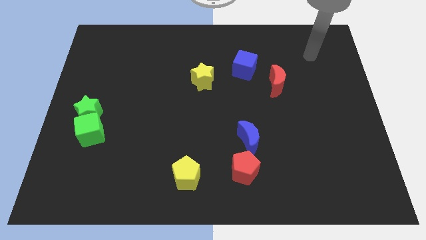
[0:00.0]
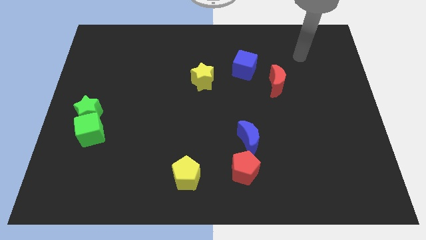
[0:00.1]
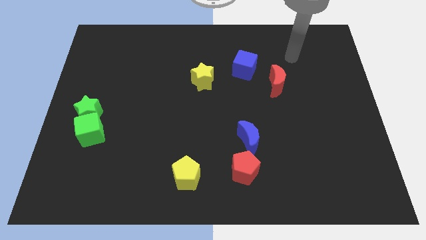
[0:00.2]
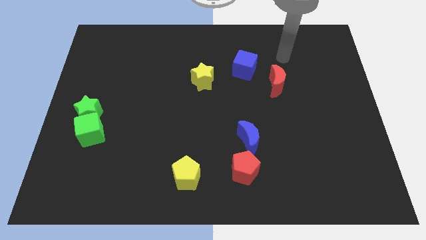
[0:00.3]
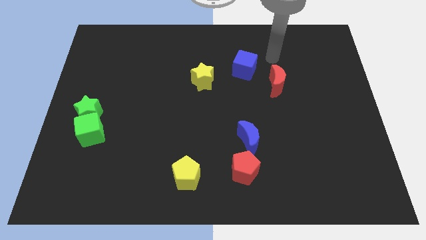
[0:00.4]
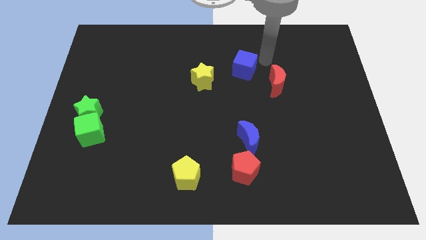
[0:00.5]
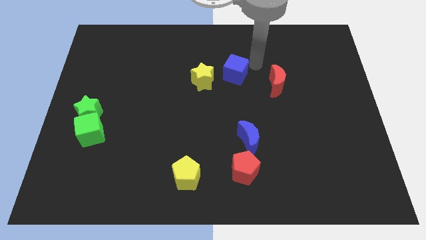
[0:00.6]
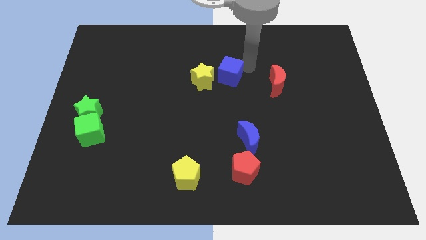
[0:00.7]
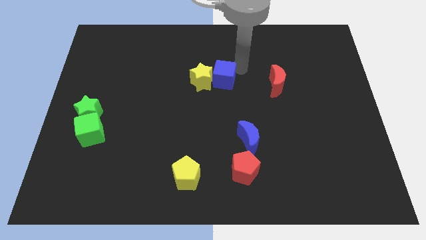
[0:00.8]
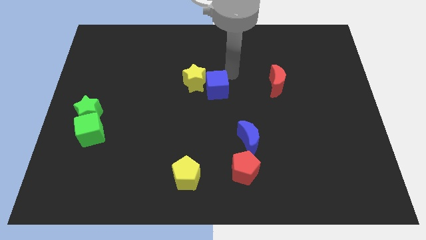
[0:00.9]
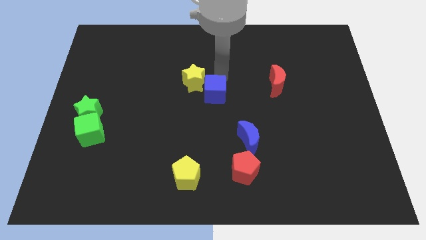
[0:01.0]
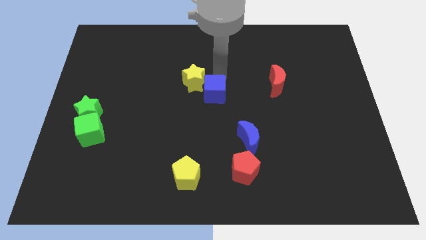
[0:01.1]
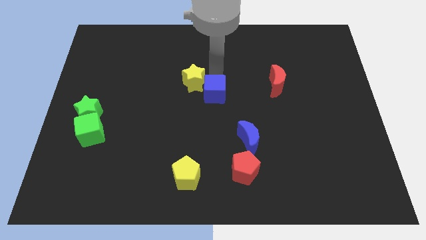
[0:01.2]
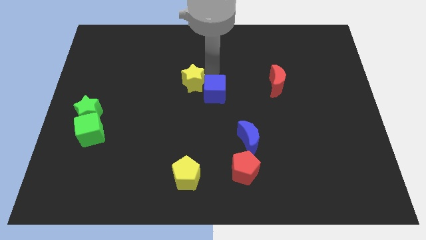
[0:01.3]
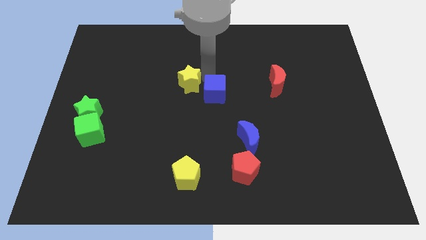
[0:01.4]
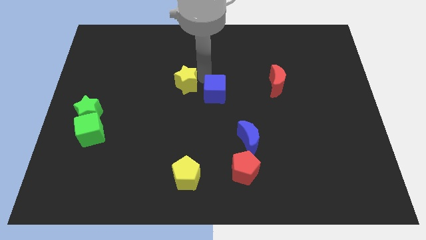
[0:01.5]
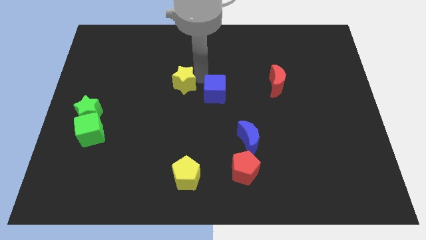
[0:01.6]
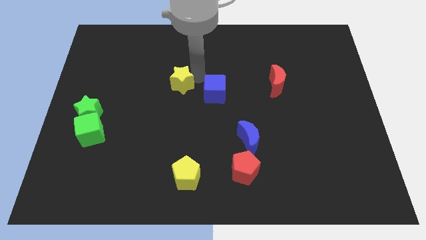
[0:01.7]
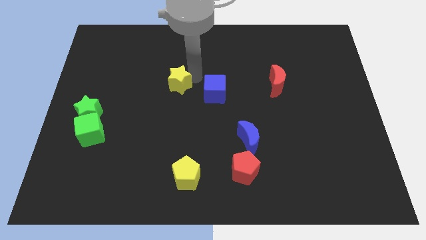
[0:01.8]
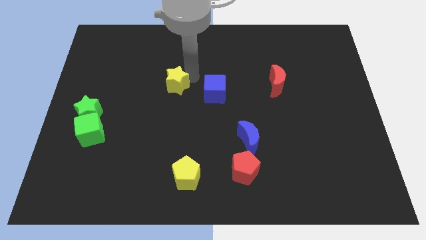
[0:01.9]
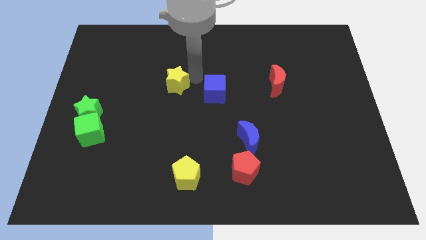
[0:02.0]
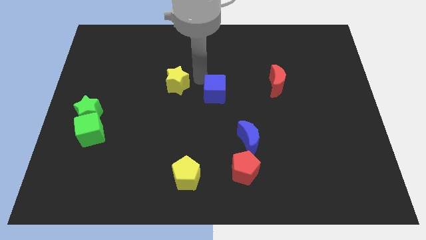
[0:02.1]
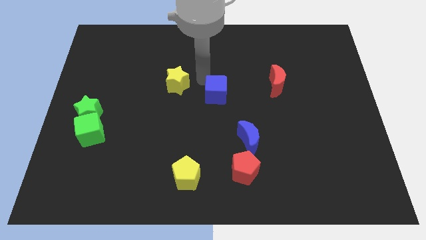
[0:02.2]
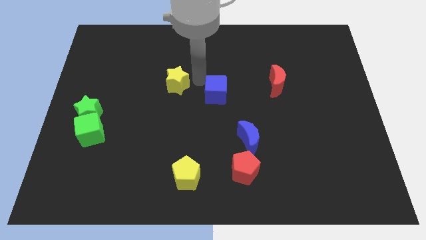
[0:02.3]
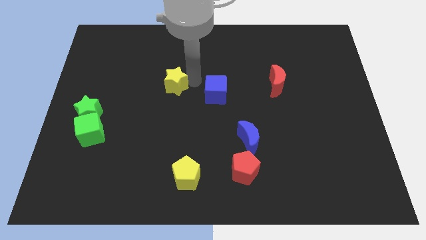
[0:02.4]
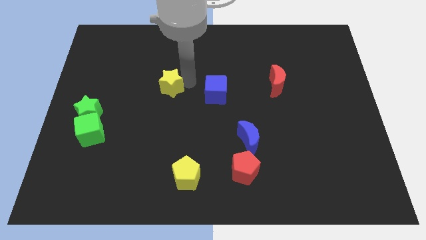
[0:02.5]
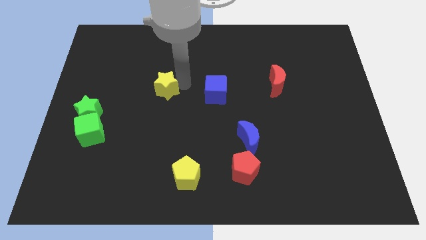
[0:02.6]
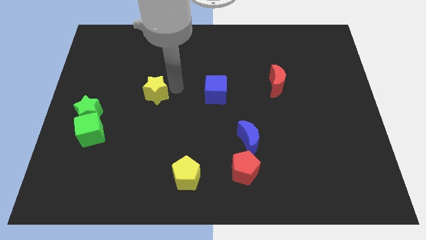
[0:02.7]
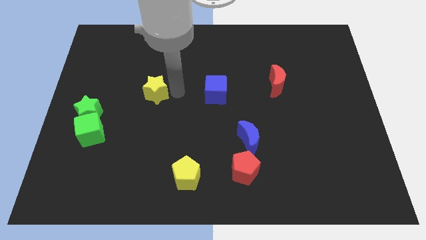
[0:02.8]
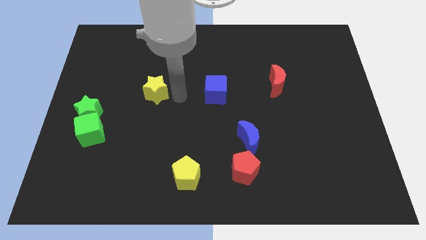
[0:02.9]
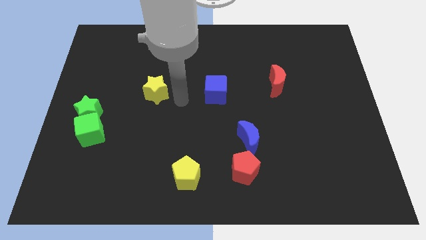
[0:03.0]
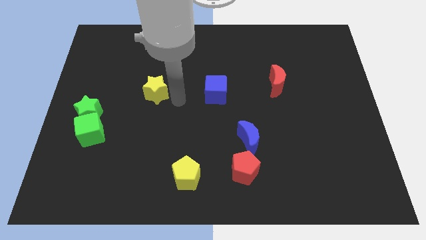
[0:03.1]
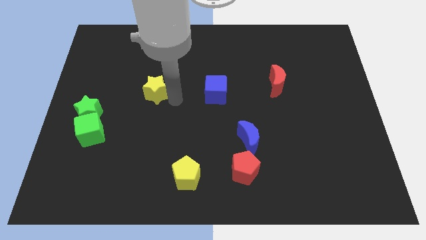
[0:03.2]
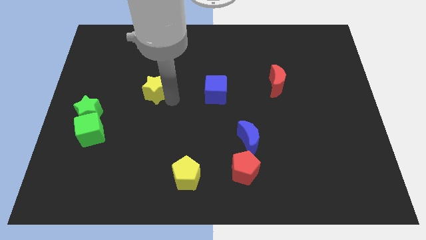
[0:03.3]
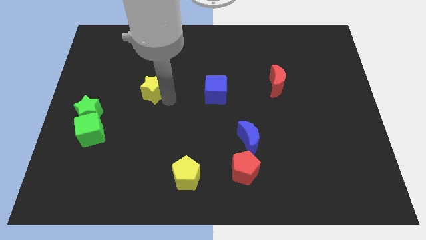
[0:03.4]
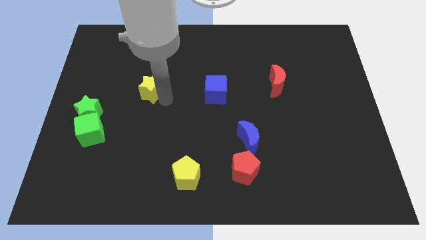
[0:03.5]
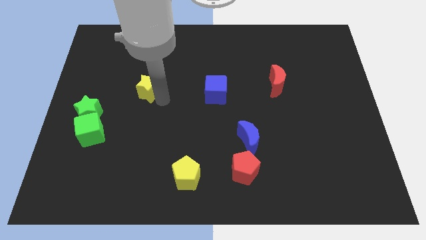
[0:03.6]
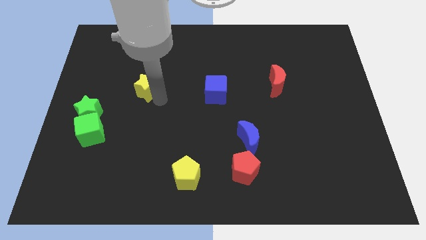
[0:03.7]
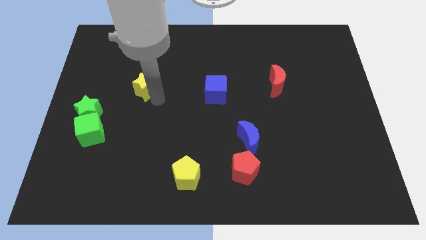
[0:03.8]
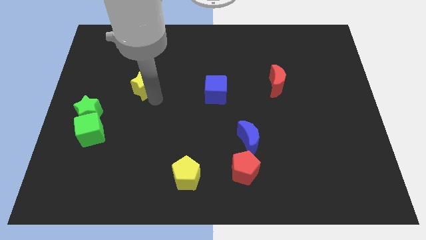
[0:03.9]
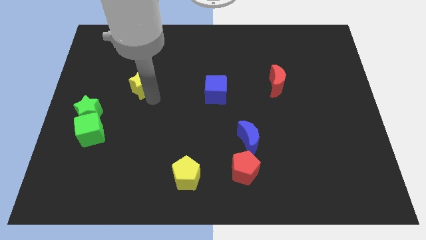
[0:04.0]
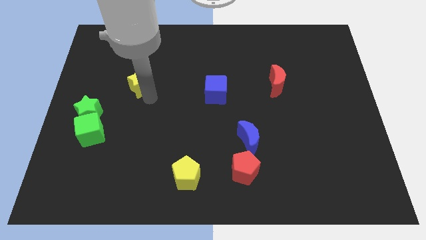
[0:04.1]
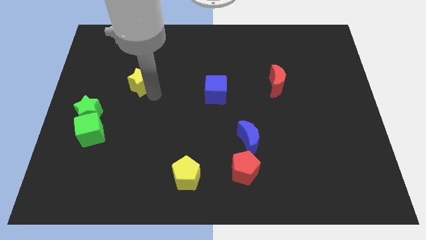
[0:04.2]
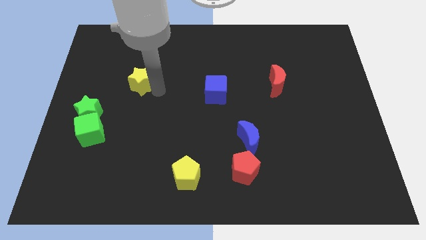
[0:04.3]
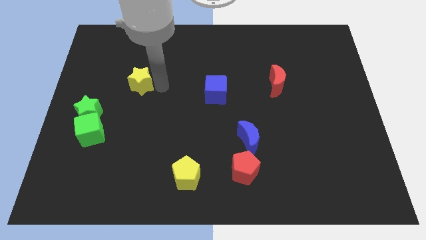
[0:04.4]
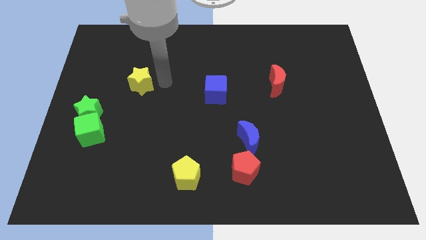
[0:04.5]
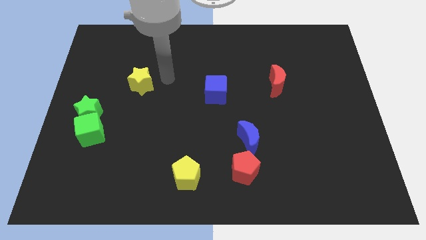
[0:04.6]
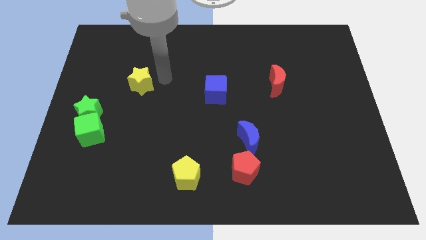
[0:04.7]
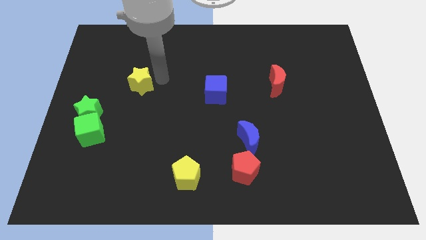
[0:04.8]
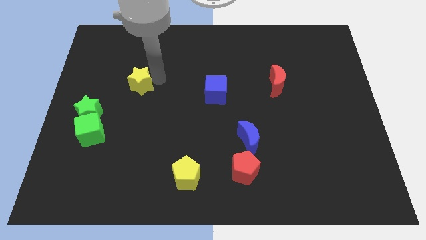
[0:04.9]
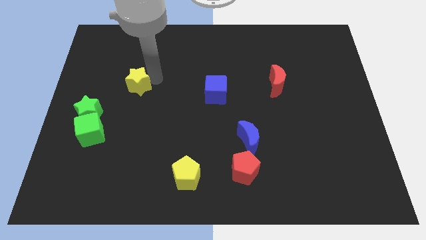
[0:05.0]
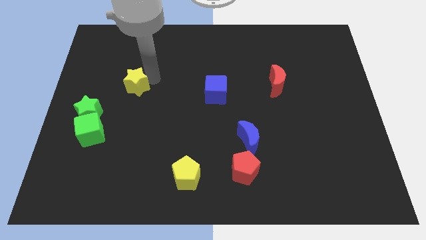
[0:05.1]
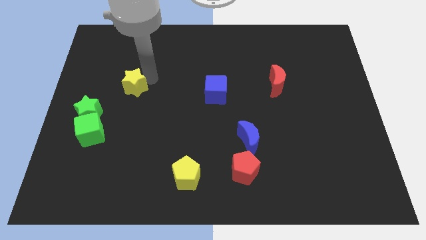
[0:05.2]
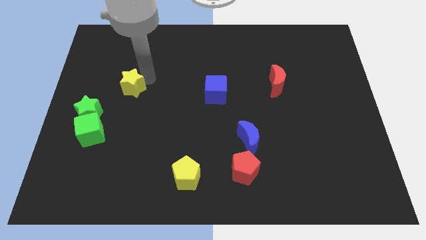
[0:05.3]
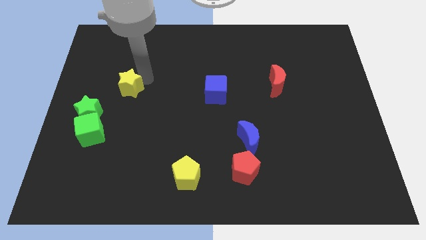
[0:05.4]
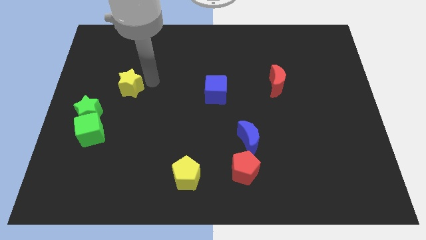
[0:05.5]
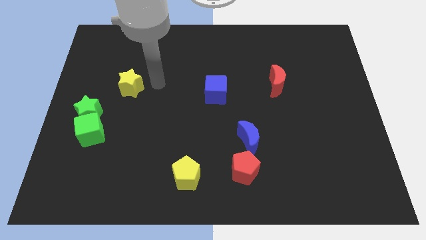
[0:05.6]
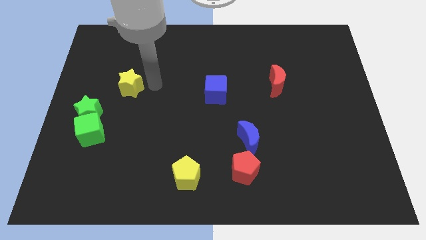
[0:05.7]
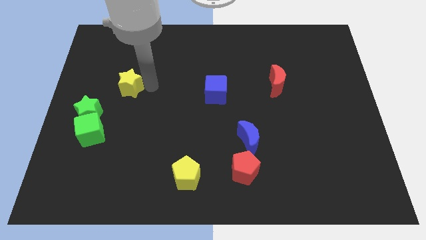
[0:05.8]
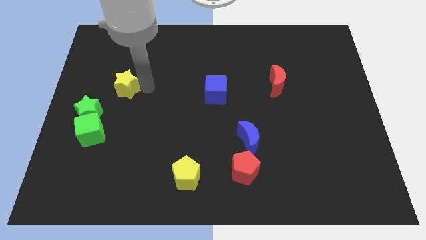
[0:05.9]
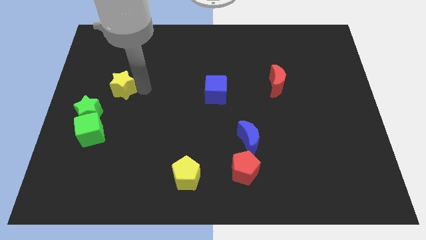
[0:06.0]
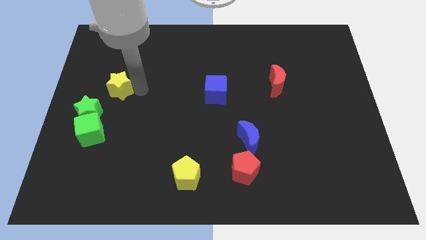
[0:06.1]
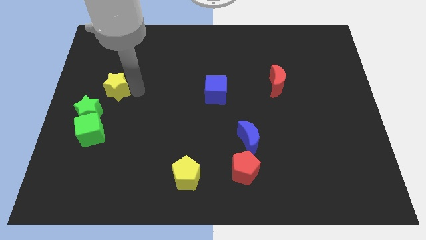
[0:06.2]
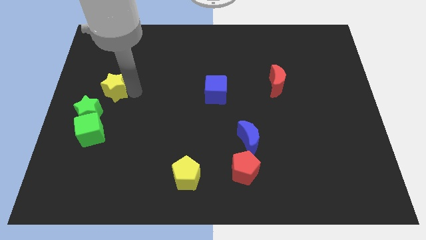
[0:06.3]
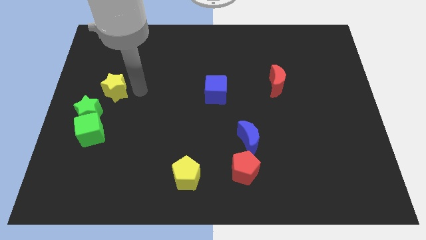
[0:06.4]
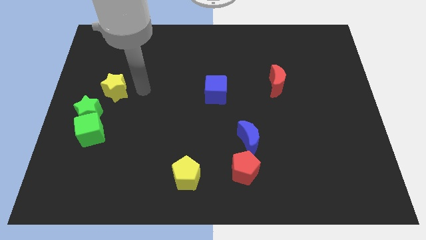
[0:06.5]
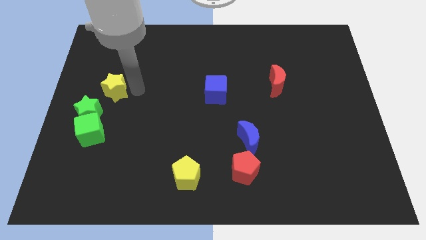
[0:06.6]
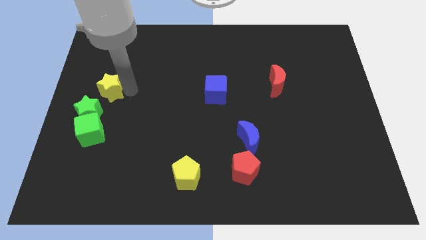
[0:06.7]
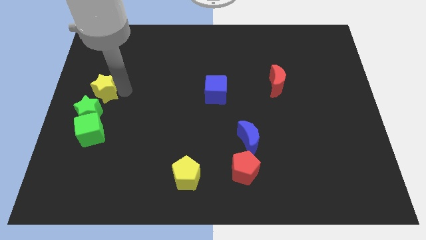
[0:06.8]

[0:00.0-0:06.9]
put the yellow star to the center left
